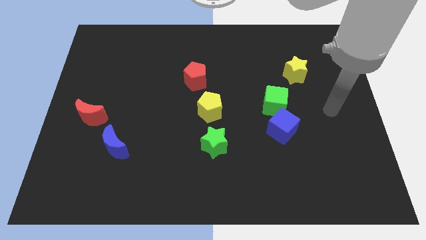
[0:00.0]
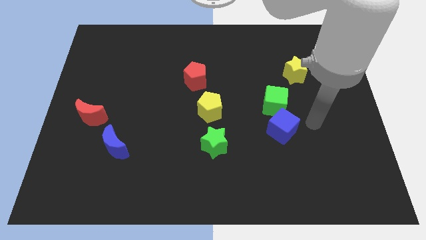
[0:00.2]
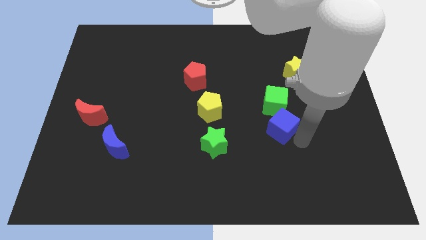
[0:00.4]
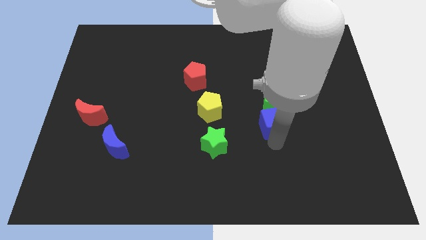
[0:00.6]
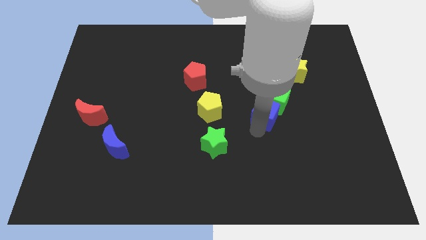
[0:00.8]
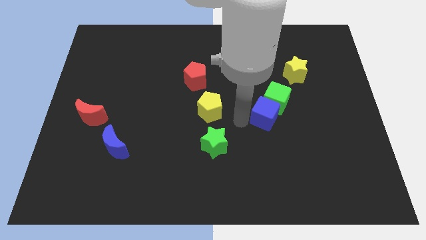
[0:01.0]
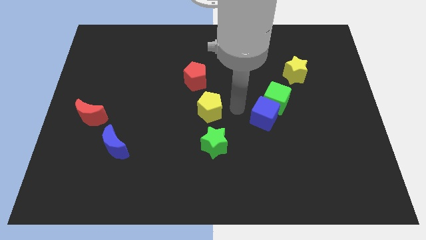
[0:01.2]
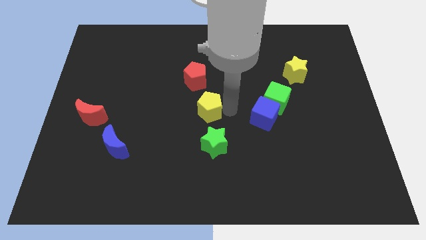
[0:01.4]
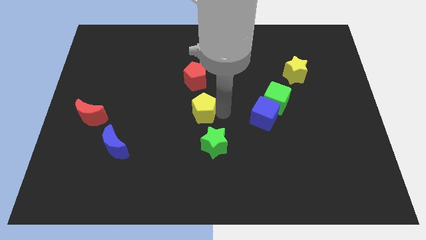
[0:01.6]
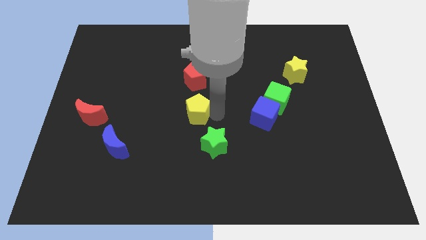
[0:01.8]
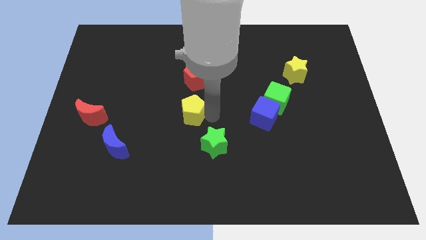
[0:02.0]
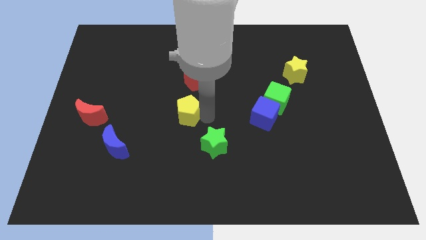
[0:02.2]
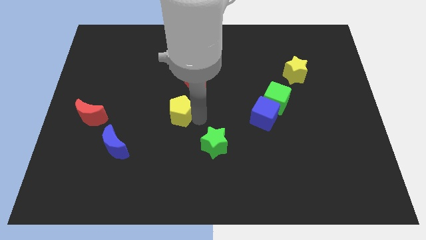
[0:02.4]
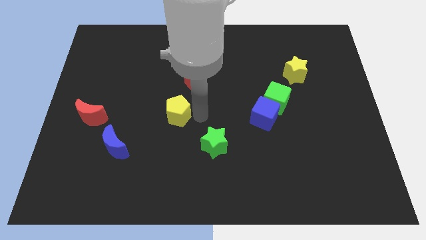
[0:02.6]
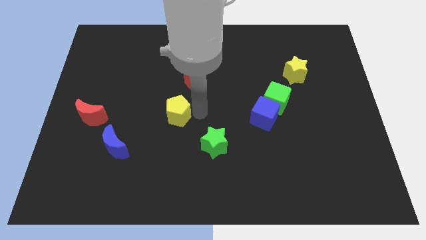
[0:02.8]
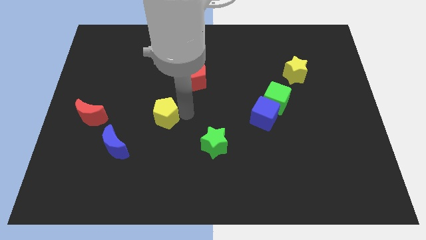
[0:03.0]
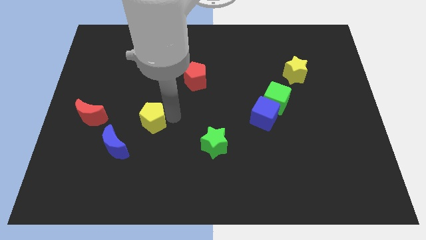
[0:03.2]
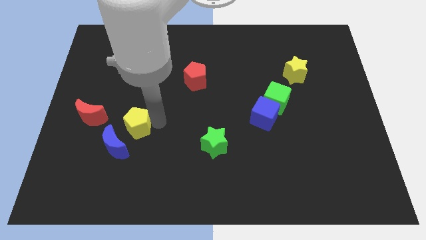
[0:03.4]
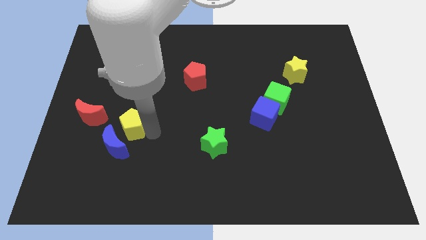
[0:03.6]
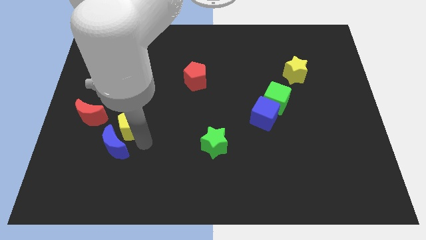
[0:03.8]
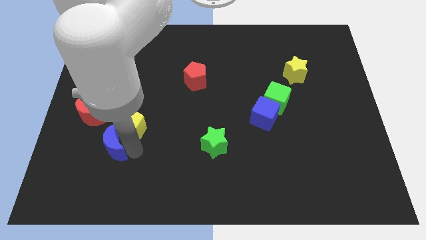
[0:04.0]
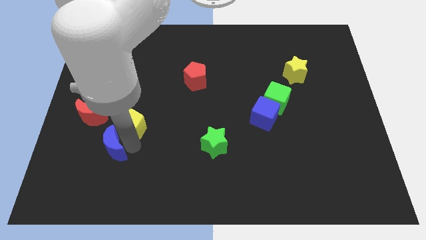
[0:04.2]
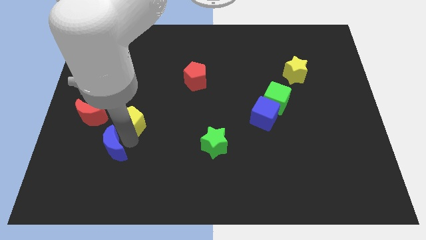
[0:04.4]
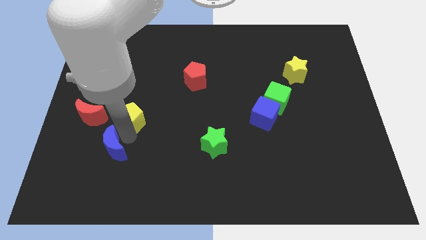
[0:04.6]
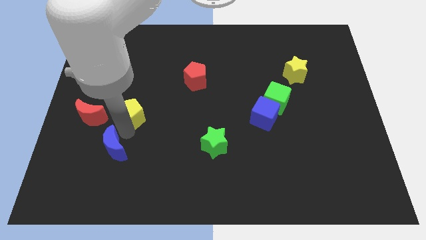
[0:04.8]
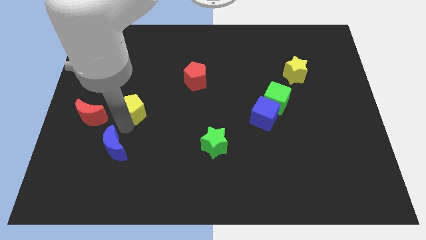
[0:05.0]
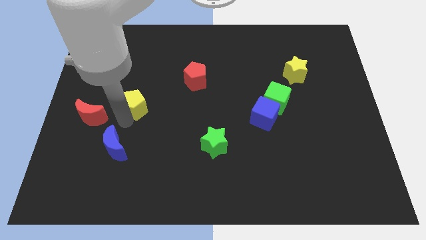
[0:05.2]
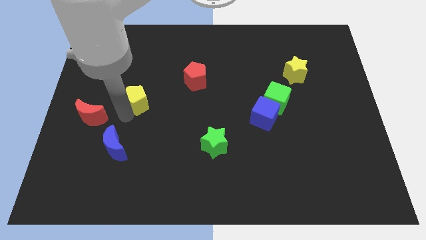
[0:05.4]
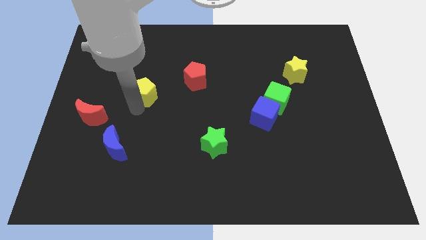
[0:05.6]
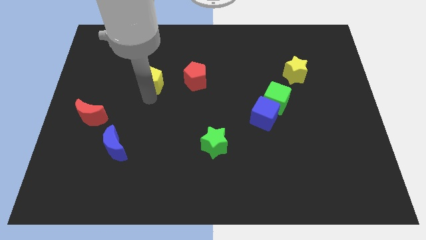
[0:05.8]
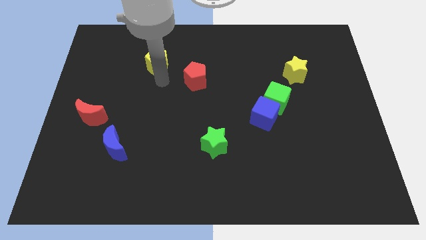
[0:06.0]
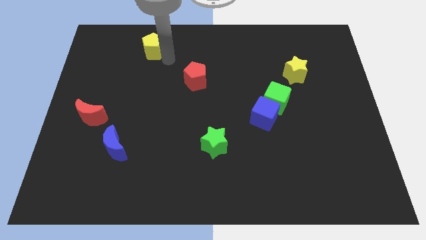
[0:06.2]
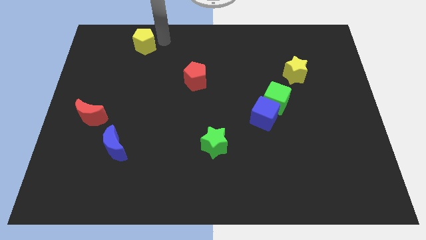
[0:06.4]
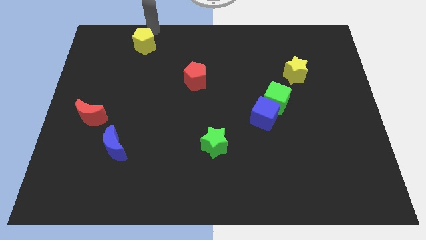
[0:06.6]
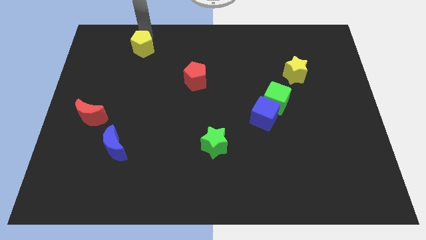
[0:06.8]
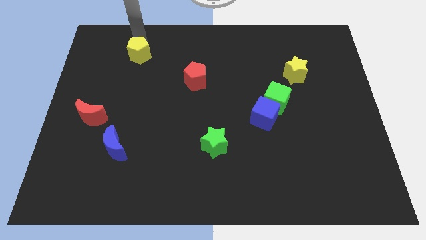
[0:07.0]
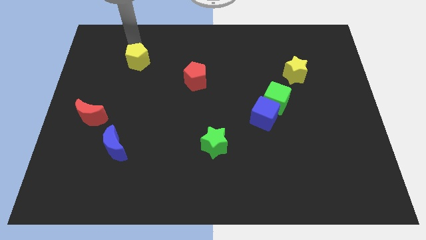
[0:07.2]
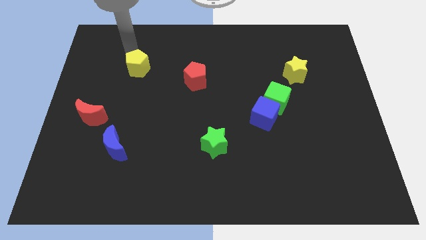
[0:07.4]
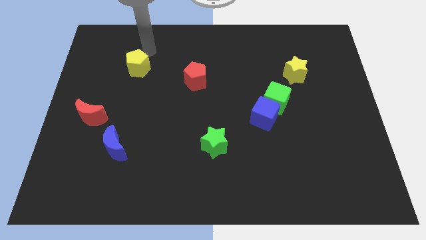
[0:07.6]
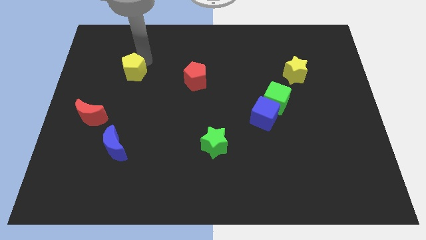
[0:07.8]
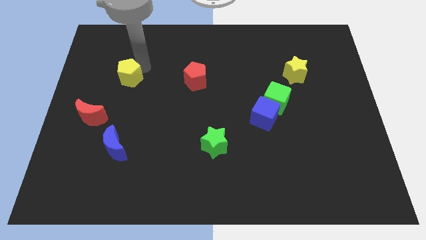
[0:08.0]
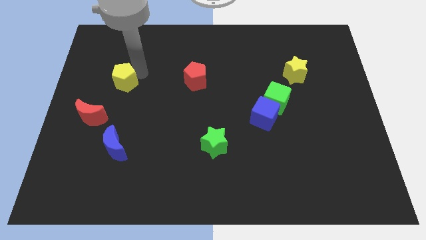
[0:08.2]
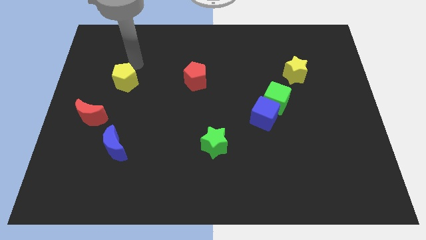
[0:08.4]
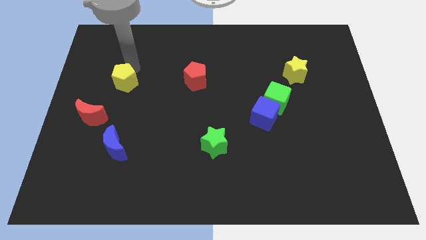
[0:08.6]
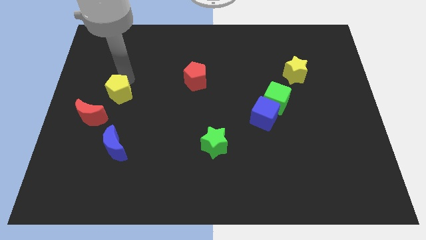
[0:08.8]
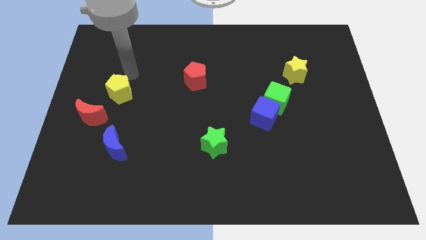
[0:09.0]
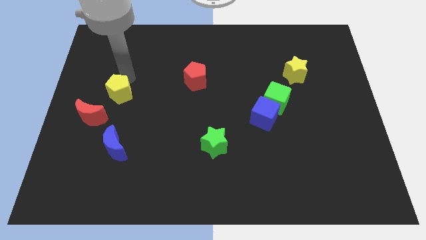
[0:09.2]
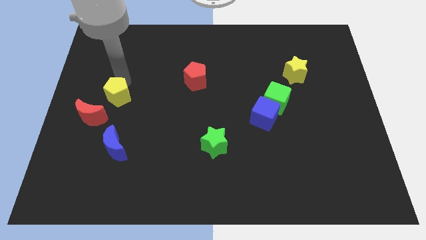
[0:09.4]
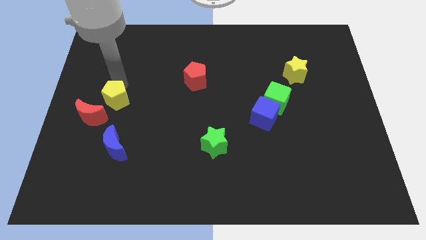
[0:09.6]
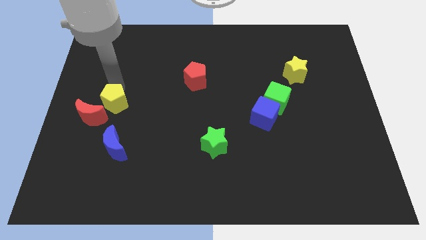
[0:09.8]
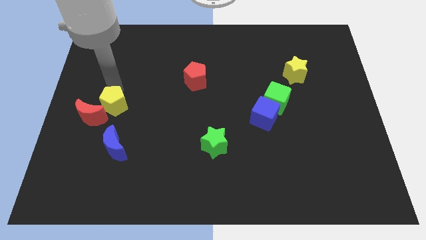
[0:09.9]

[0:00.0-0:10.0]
put the yellow pentagon towards the red moon

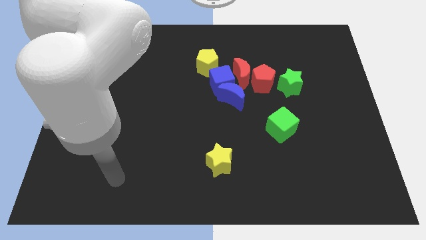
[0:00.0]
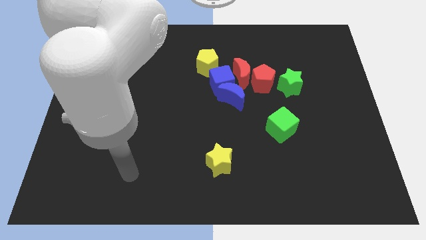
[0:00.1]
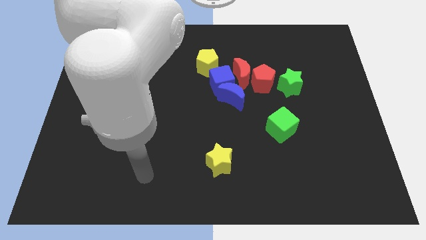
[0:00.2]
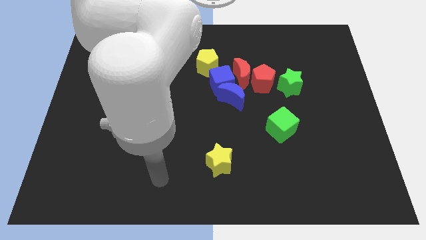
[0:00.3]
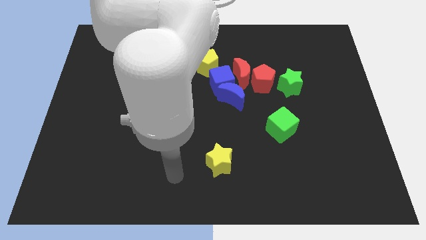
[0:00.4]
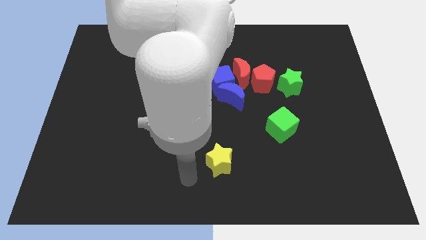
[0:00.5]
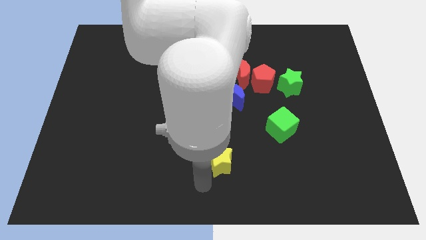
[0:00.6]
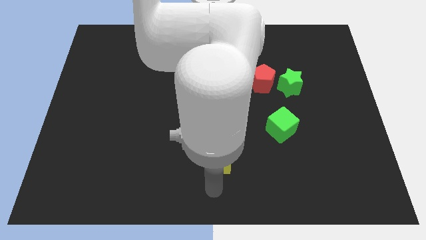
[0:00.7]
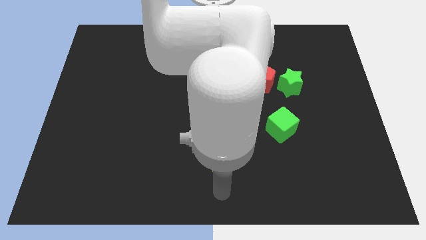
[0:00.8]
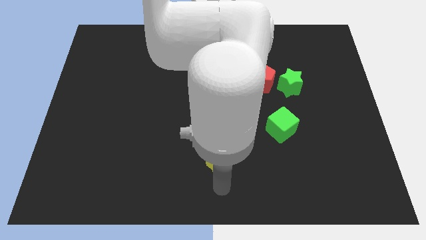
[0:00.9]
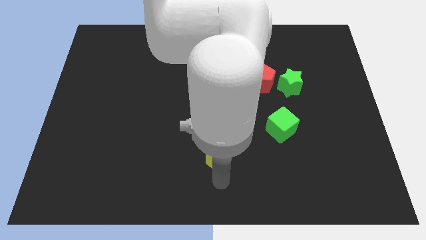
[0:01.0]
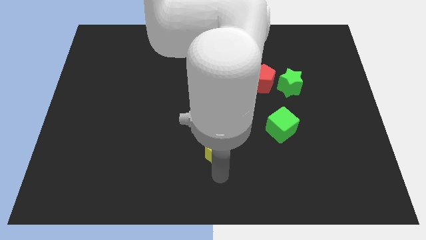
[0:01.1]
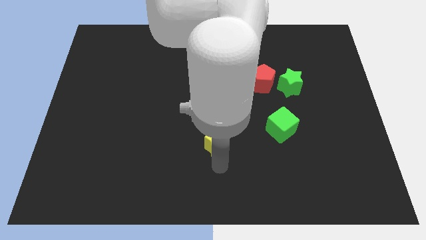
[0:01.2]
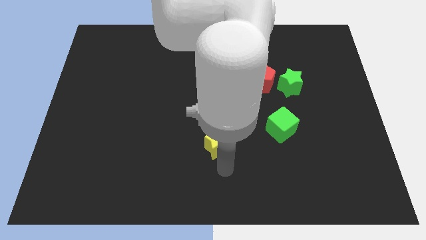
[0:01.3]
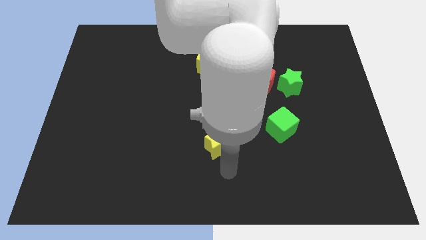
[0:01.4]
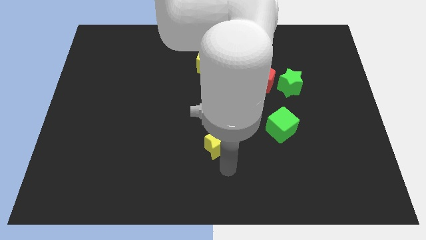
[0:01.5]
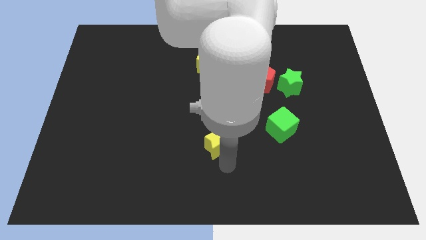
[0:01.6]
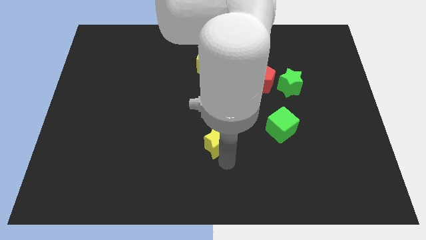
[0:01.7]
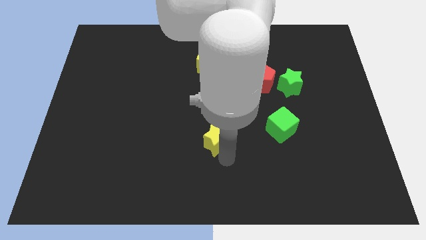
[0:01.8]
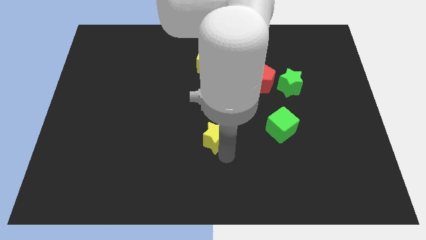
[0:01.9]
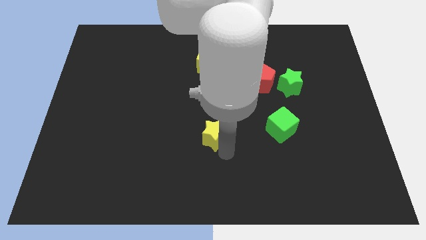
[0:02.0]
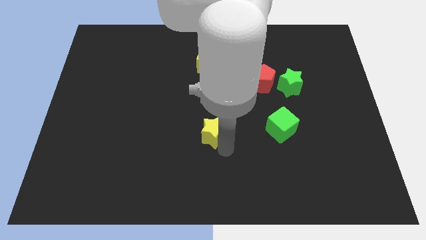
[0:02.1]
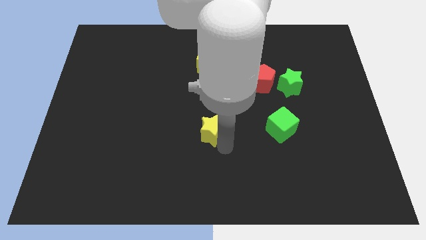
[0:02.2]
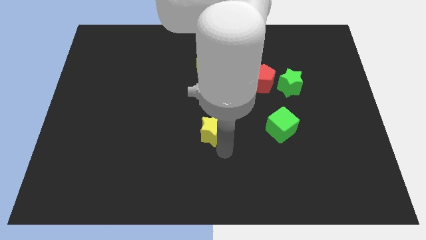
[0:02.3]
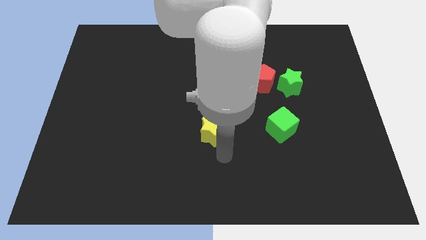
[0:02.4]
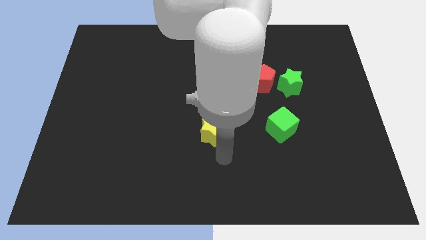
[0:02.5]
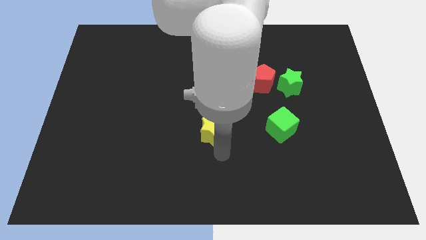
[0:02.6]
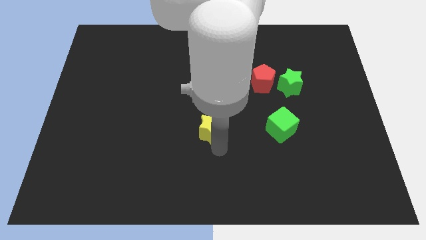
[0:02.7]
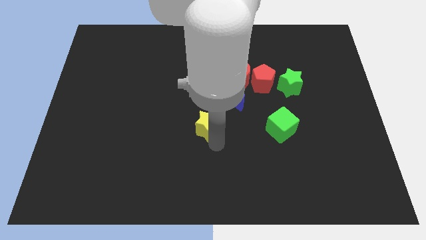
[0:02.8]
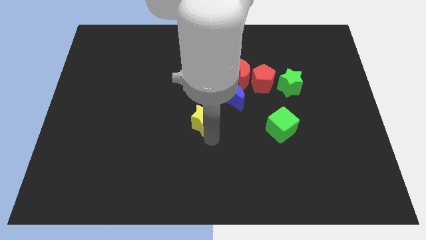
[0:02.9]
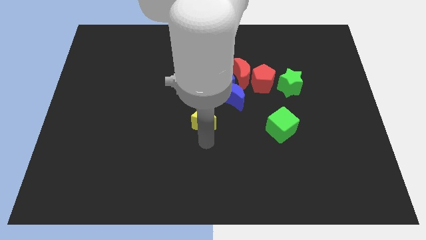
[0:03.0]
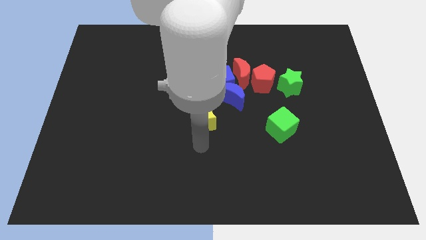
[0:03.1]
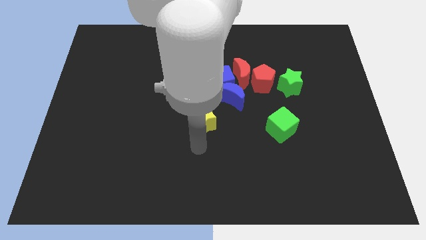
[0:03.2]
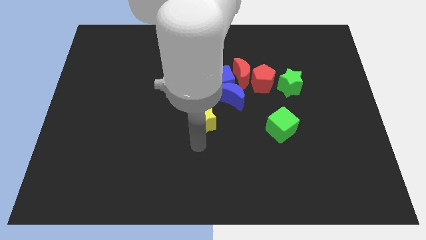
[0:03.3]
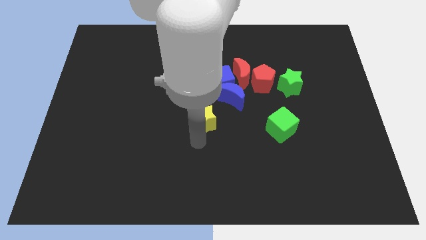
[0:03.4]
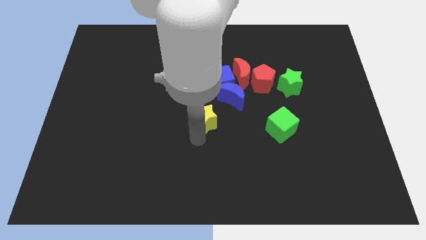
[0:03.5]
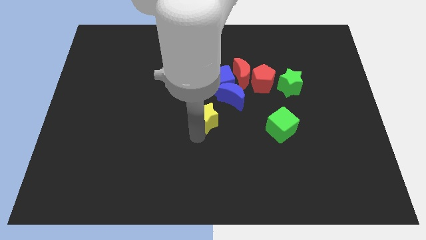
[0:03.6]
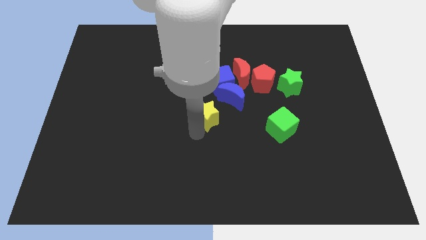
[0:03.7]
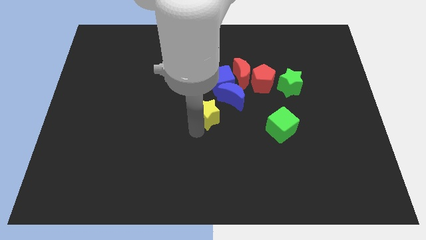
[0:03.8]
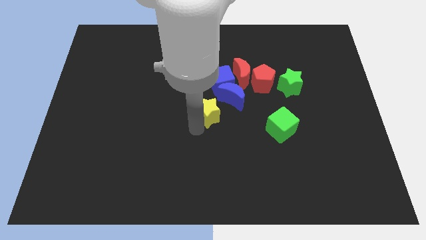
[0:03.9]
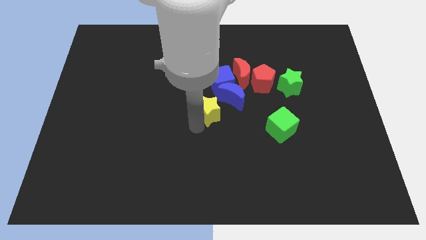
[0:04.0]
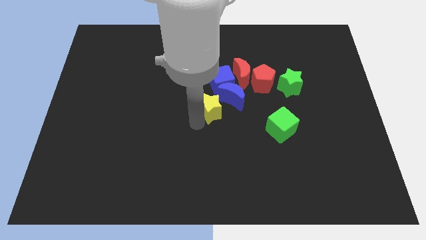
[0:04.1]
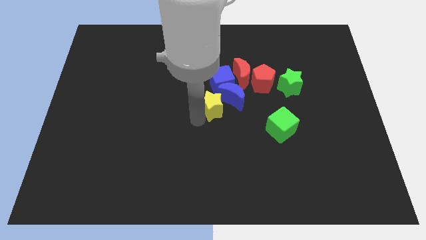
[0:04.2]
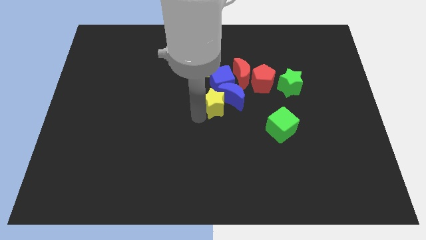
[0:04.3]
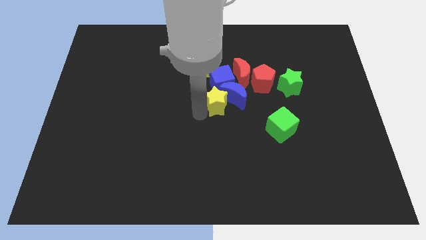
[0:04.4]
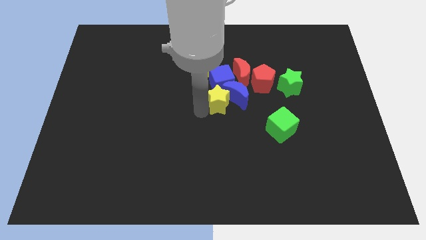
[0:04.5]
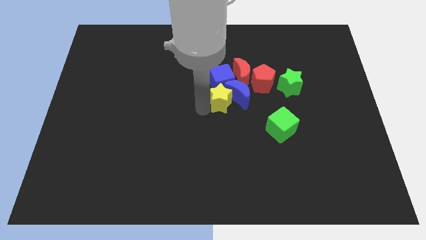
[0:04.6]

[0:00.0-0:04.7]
push the yellow star to the blue cube
